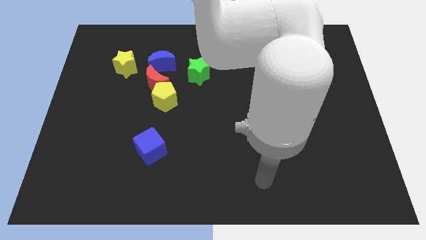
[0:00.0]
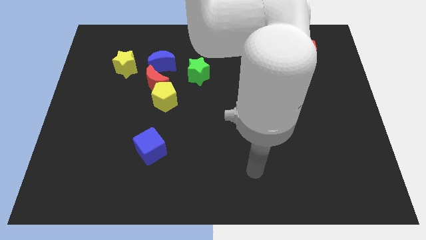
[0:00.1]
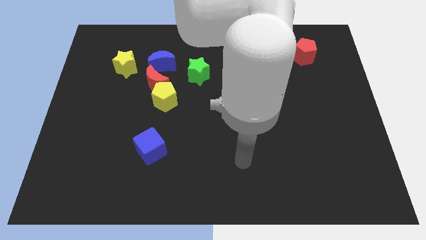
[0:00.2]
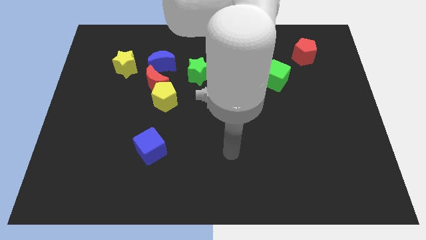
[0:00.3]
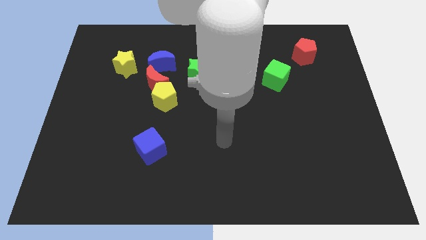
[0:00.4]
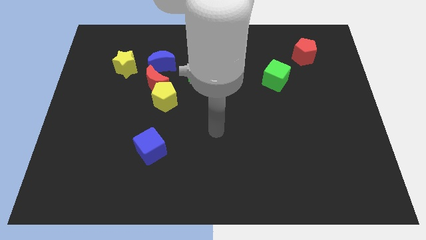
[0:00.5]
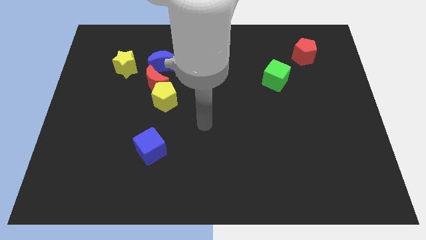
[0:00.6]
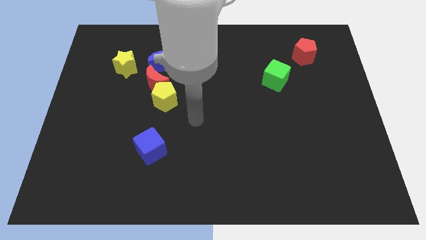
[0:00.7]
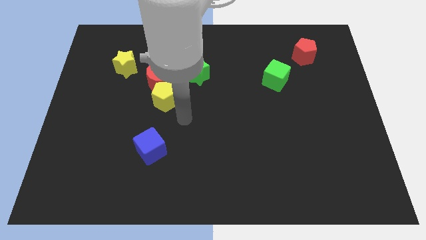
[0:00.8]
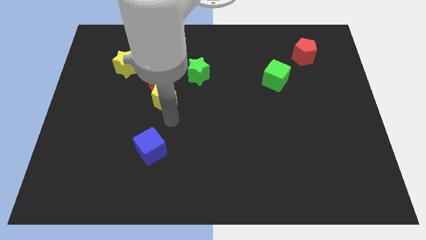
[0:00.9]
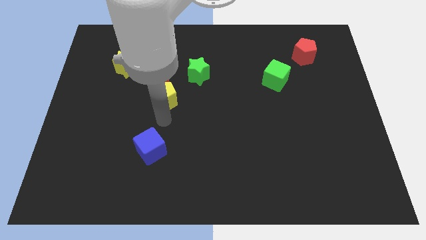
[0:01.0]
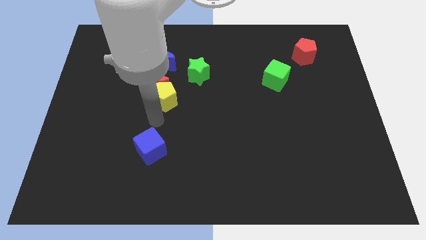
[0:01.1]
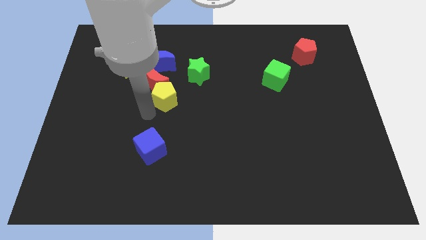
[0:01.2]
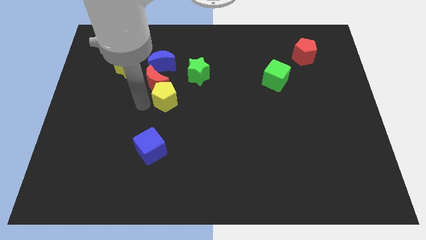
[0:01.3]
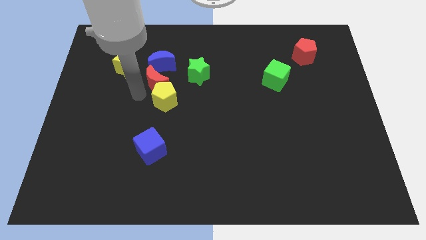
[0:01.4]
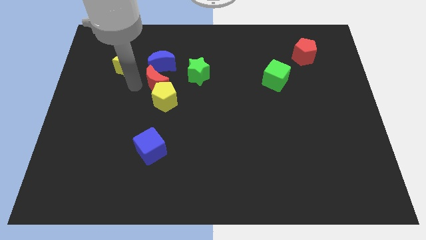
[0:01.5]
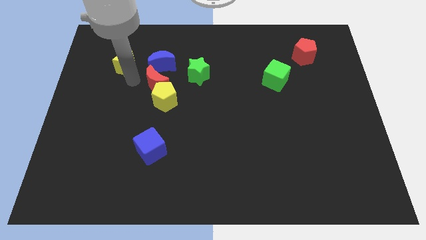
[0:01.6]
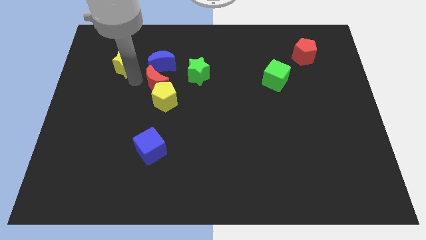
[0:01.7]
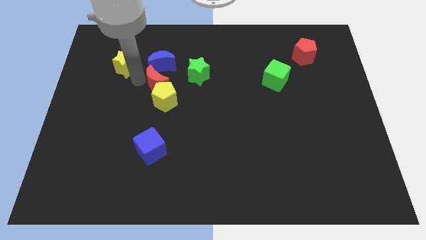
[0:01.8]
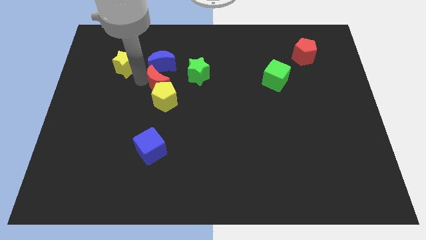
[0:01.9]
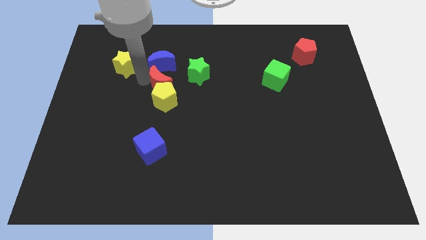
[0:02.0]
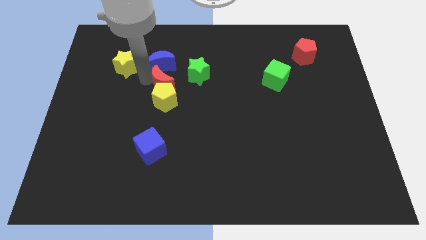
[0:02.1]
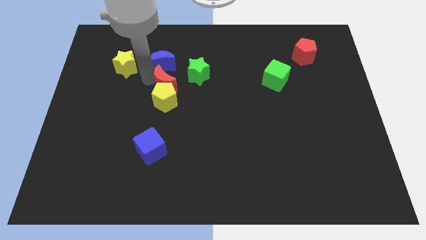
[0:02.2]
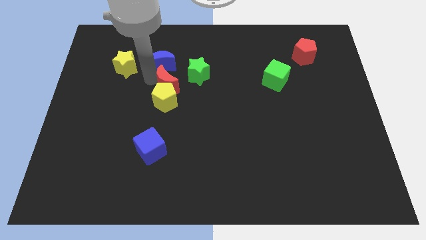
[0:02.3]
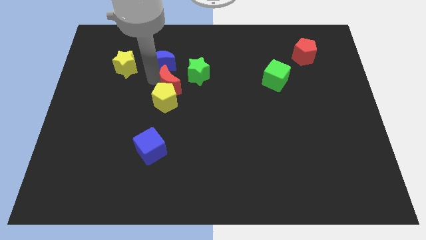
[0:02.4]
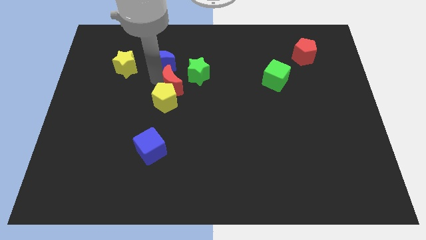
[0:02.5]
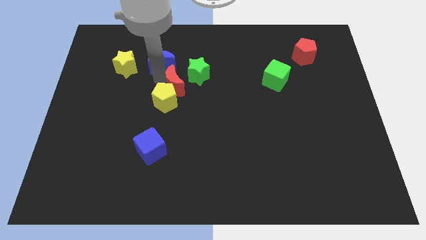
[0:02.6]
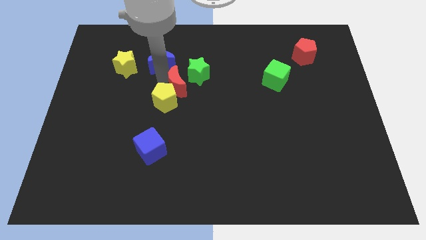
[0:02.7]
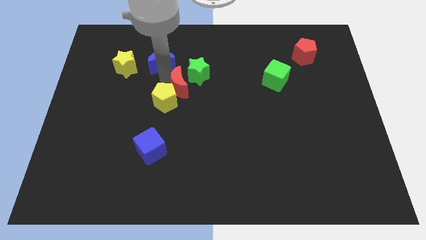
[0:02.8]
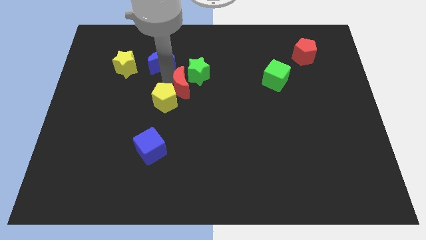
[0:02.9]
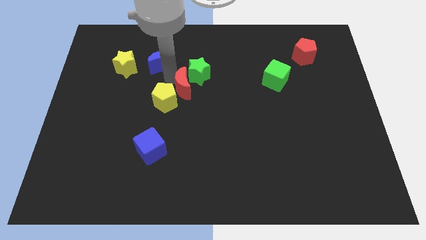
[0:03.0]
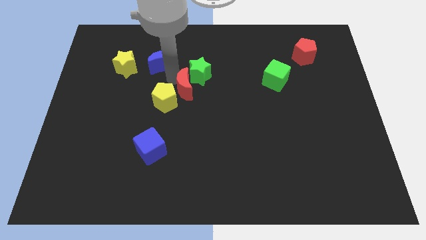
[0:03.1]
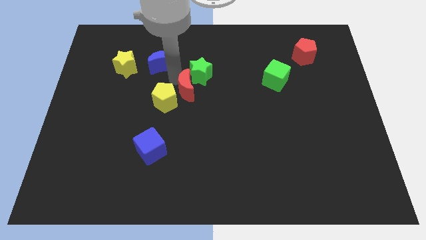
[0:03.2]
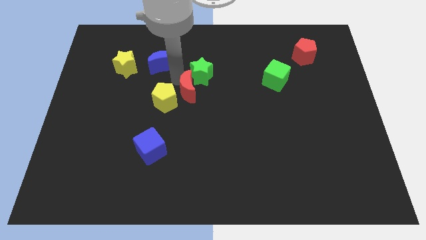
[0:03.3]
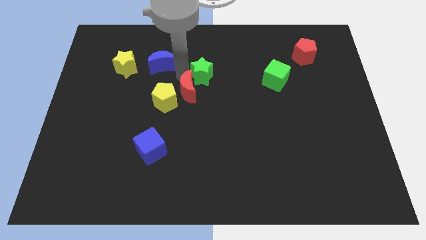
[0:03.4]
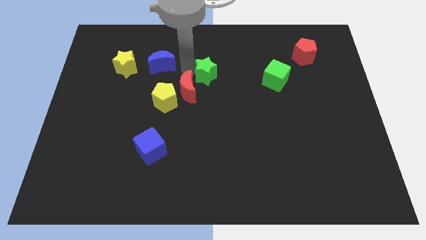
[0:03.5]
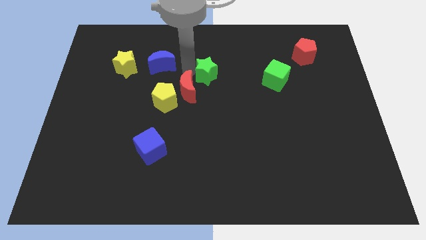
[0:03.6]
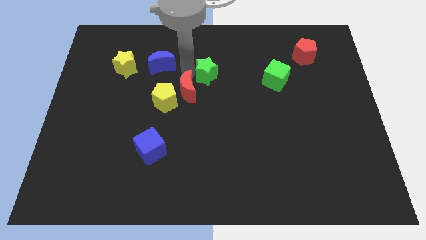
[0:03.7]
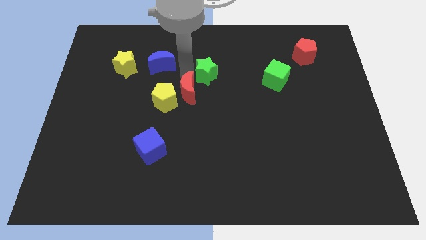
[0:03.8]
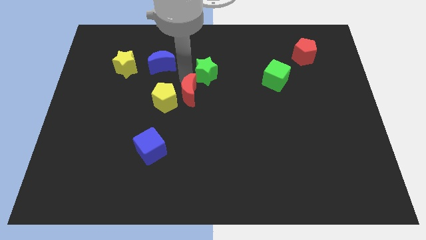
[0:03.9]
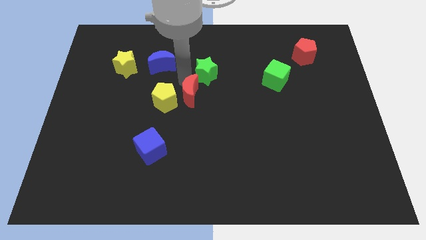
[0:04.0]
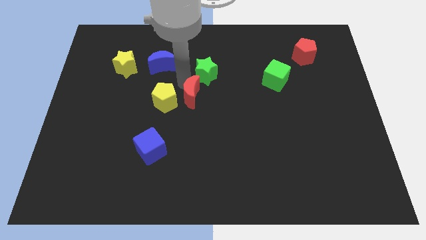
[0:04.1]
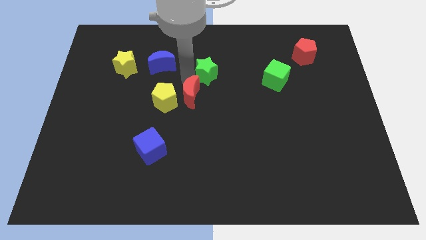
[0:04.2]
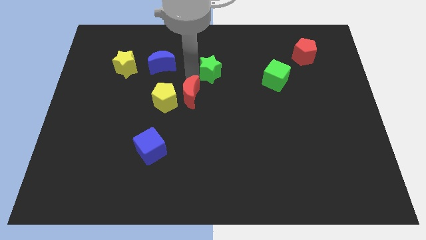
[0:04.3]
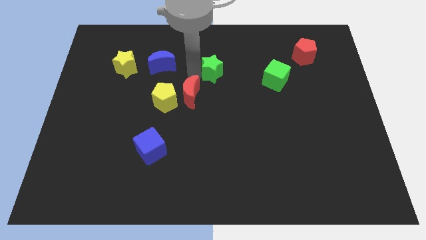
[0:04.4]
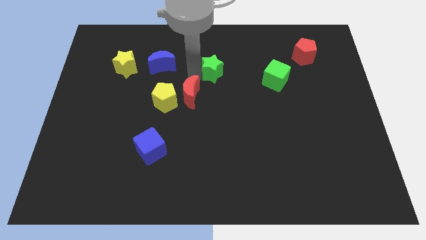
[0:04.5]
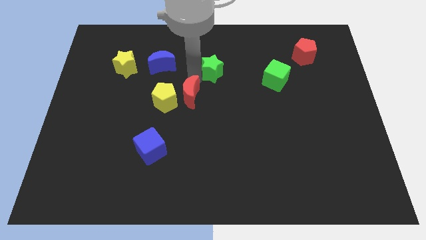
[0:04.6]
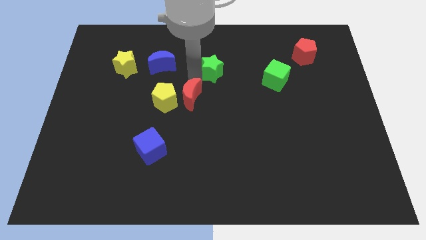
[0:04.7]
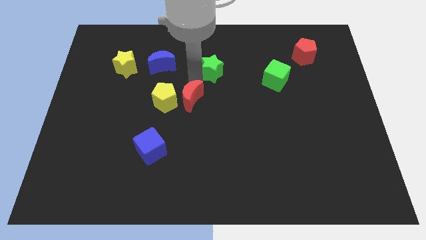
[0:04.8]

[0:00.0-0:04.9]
put the red moon to the bottom right side of the yellow pentagon

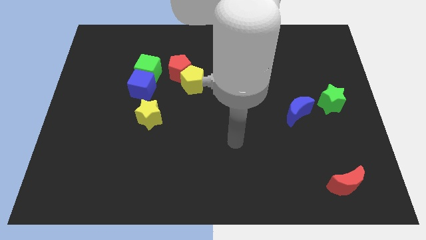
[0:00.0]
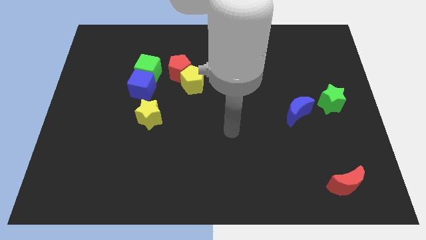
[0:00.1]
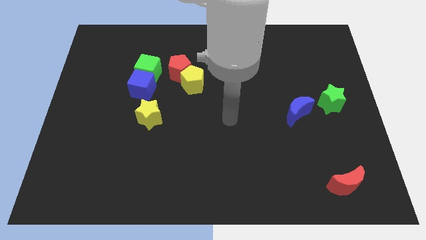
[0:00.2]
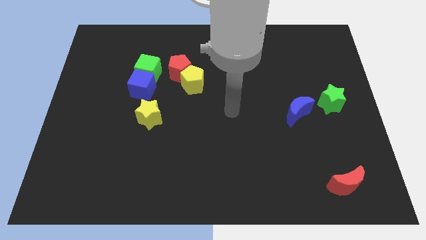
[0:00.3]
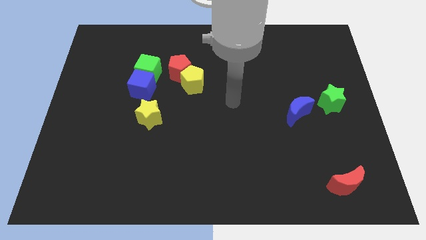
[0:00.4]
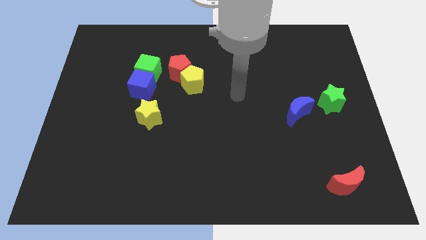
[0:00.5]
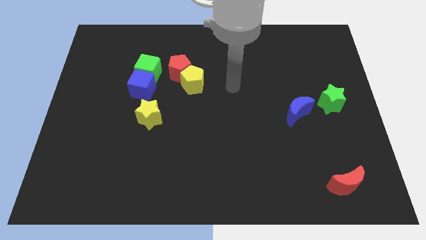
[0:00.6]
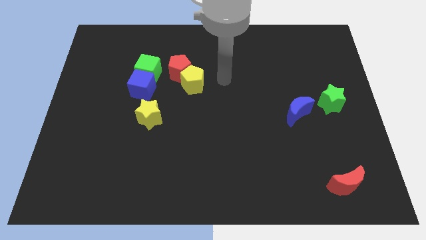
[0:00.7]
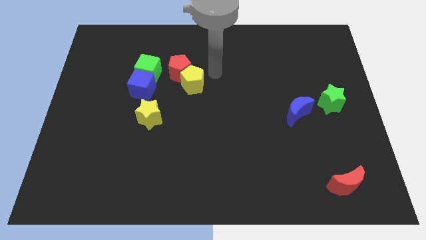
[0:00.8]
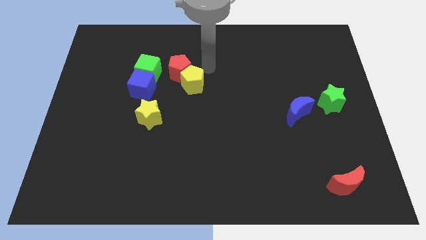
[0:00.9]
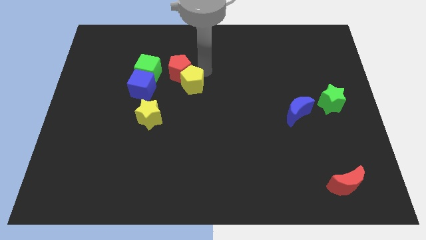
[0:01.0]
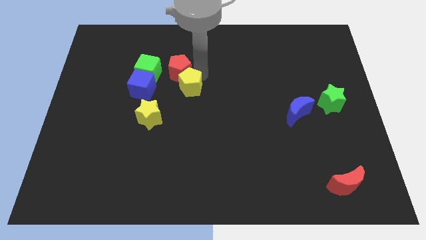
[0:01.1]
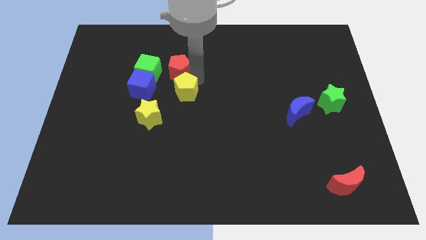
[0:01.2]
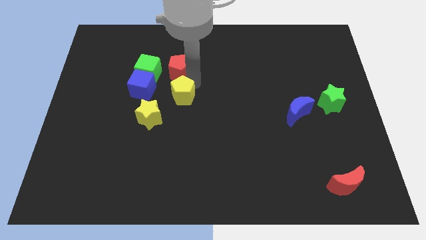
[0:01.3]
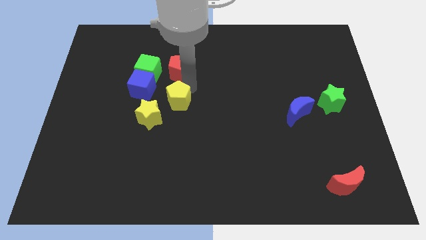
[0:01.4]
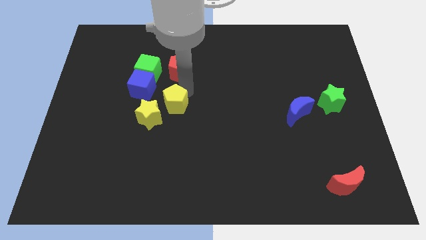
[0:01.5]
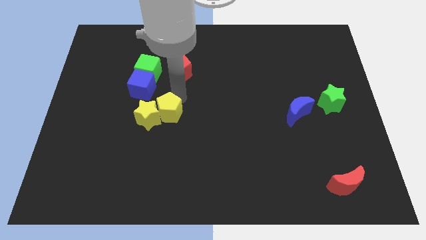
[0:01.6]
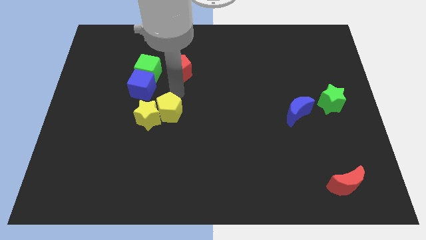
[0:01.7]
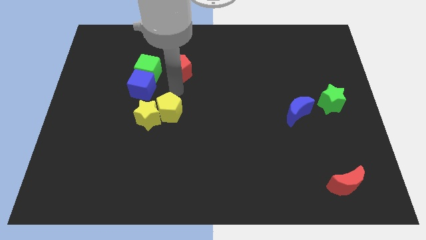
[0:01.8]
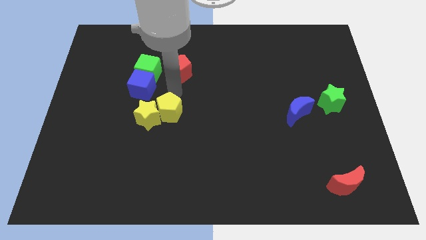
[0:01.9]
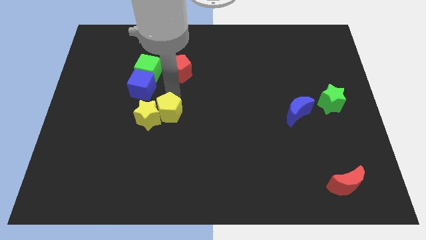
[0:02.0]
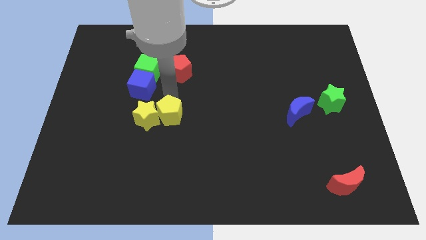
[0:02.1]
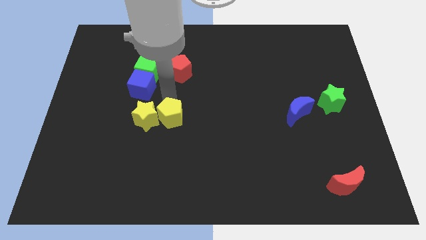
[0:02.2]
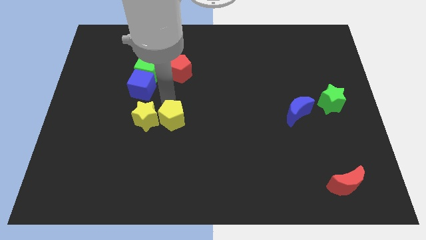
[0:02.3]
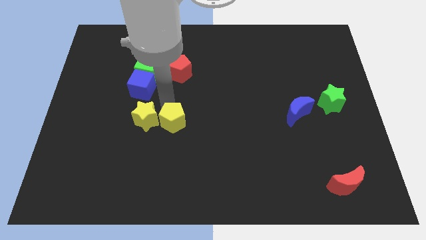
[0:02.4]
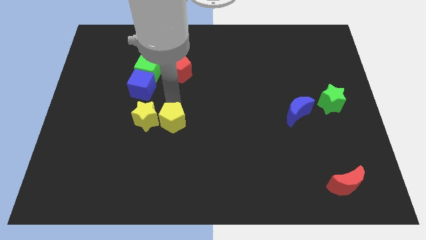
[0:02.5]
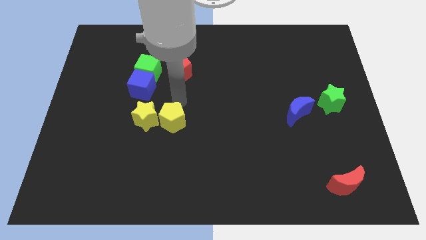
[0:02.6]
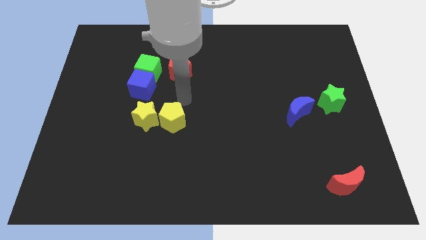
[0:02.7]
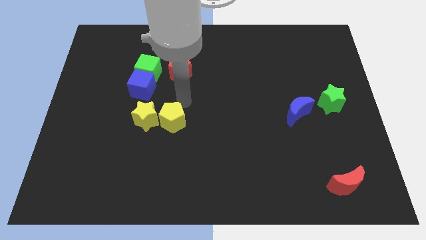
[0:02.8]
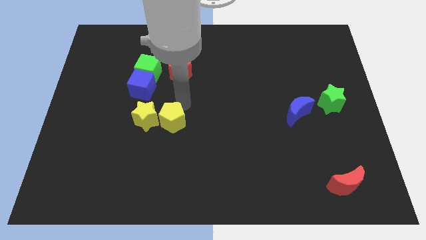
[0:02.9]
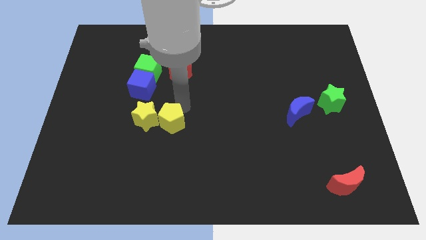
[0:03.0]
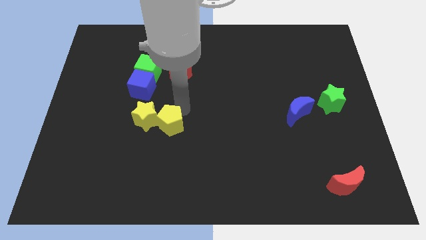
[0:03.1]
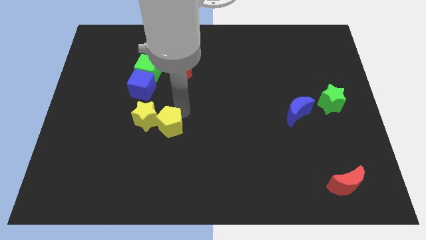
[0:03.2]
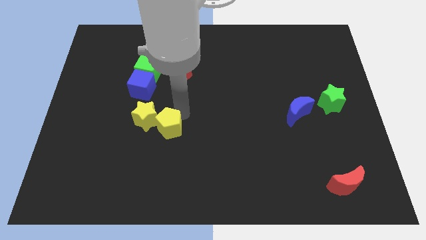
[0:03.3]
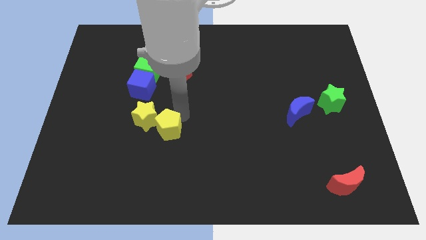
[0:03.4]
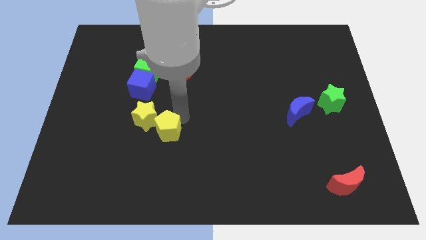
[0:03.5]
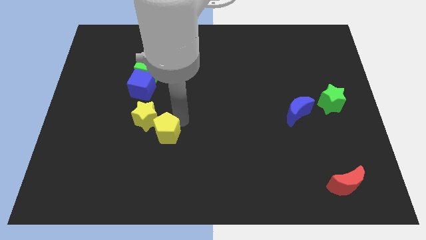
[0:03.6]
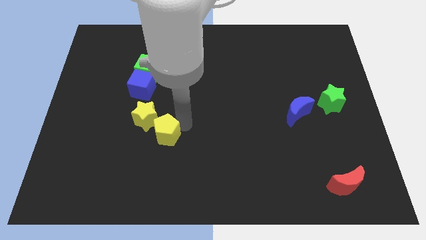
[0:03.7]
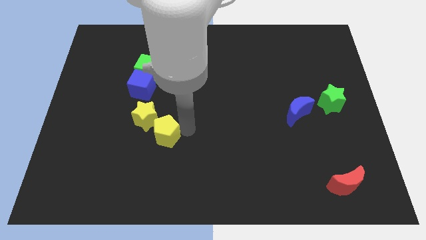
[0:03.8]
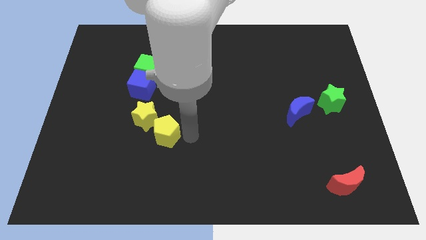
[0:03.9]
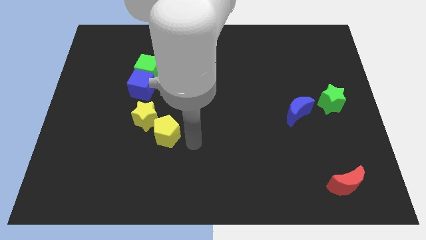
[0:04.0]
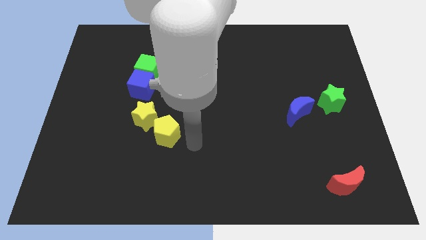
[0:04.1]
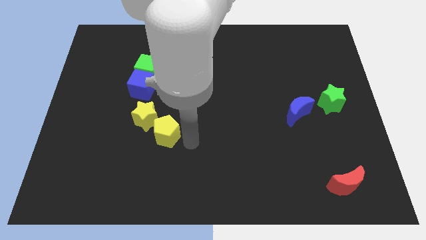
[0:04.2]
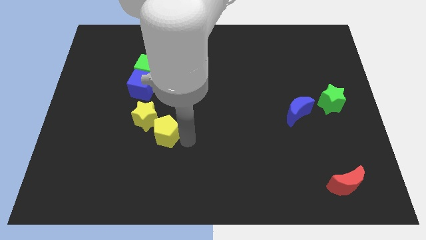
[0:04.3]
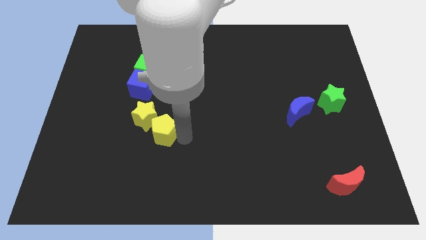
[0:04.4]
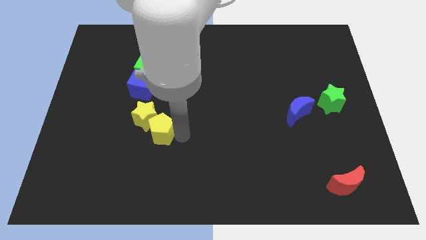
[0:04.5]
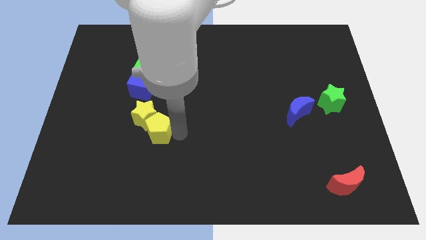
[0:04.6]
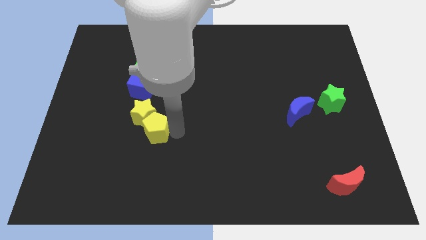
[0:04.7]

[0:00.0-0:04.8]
slide the yellow pentagon to the bottom of the blue cube
